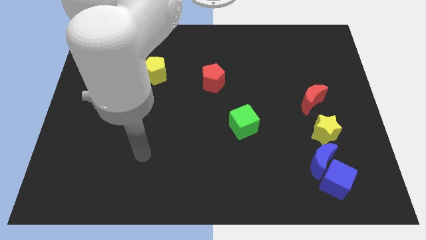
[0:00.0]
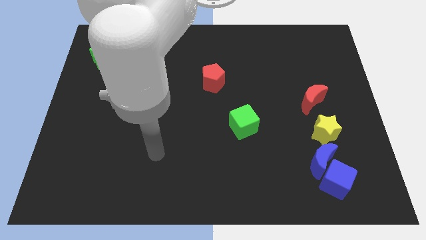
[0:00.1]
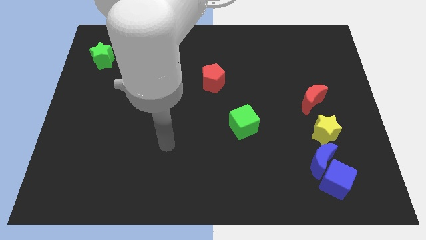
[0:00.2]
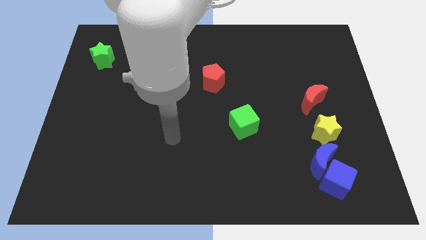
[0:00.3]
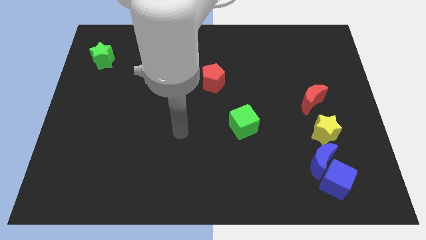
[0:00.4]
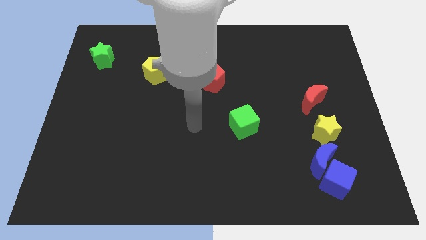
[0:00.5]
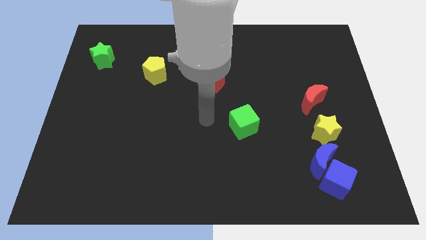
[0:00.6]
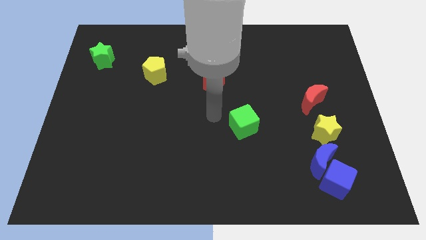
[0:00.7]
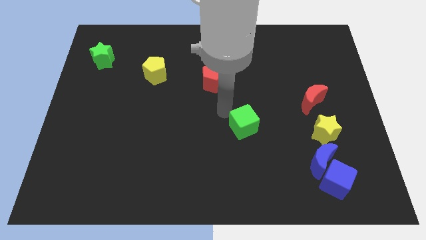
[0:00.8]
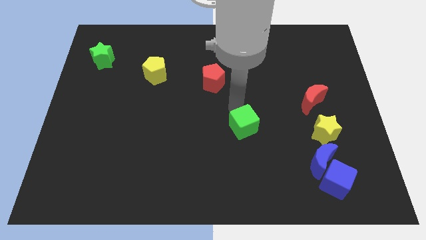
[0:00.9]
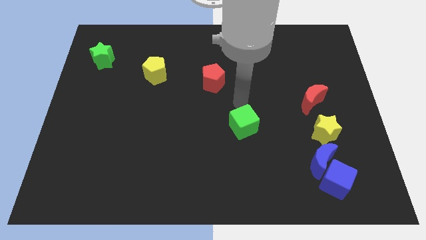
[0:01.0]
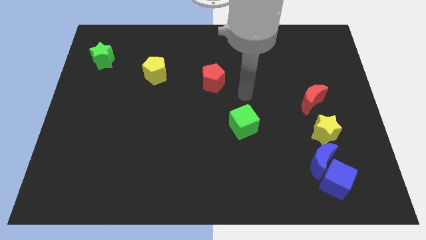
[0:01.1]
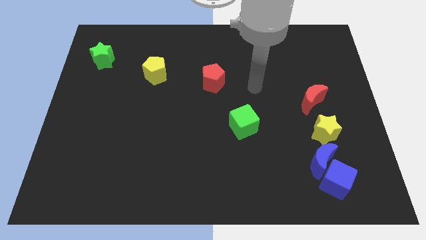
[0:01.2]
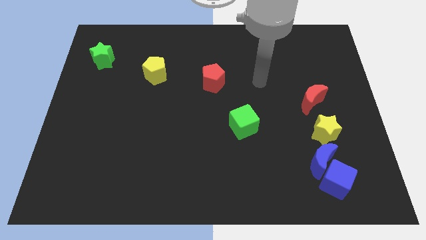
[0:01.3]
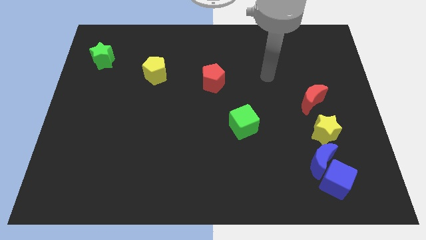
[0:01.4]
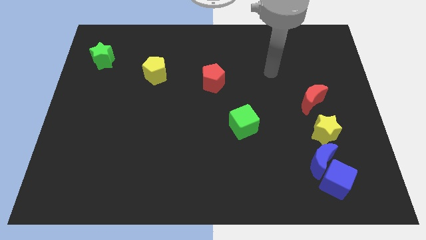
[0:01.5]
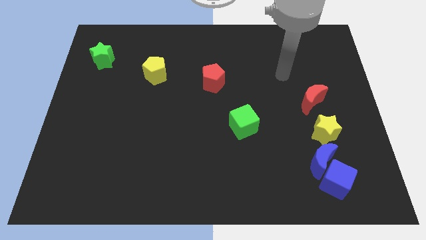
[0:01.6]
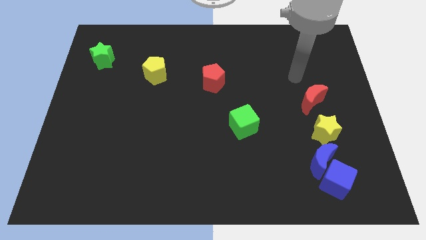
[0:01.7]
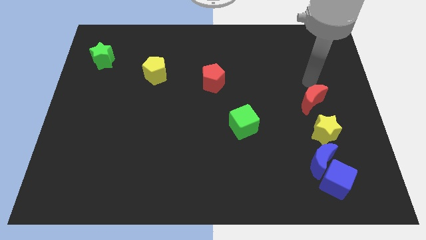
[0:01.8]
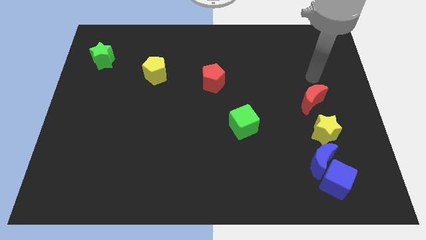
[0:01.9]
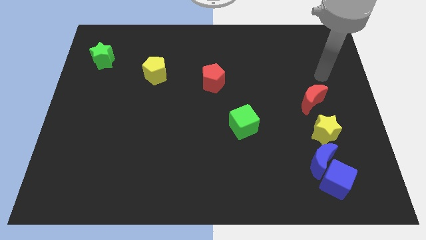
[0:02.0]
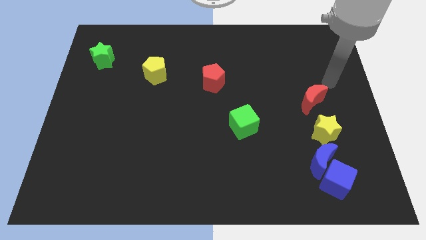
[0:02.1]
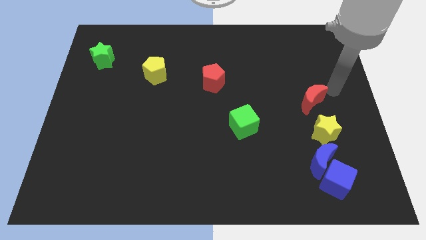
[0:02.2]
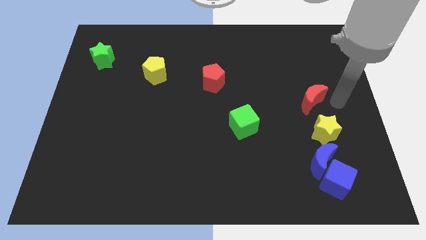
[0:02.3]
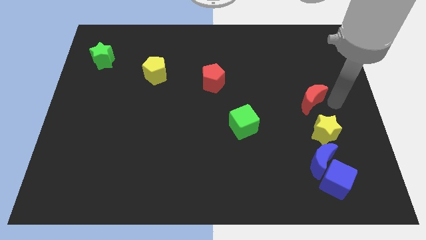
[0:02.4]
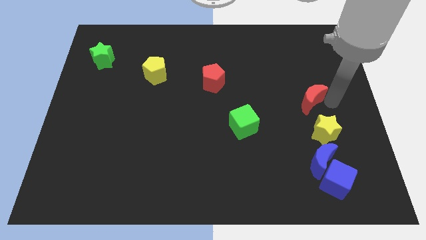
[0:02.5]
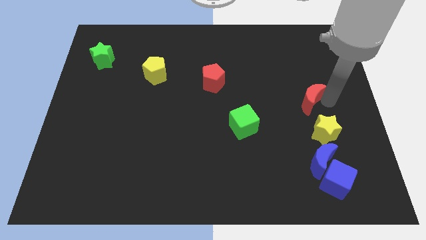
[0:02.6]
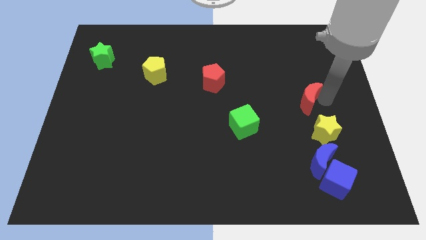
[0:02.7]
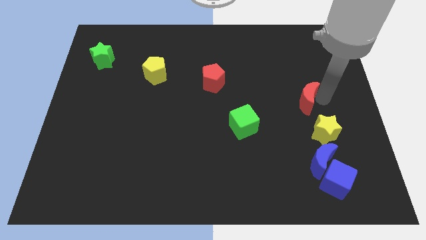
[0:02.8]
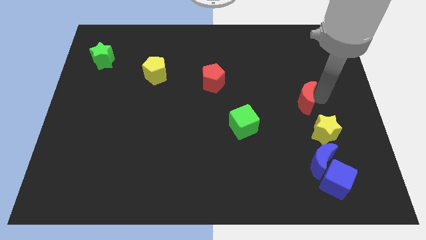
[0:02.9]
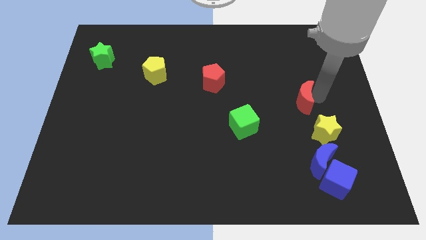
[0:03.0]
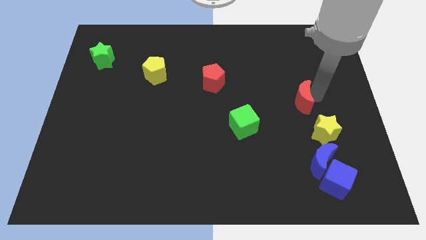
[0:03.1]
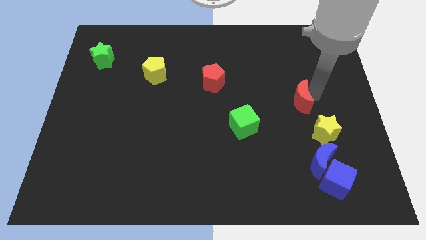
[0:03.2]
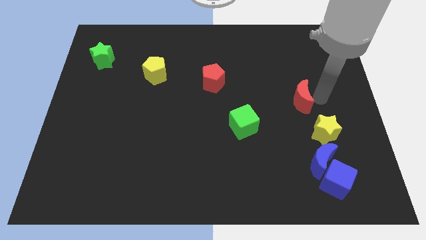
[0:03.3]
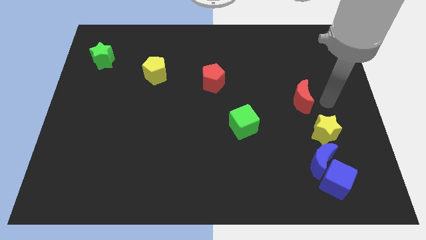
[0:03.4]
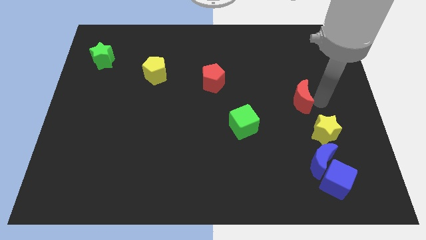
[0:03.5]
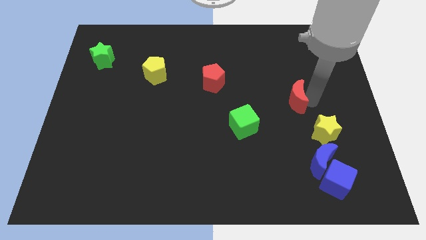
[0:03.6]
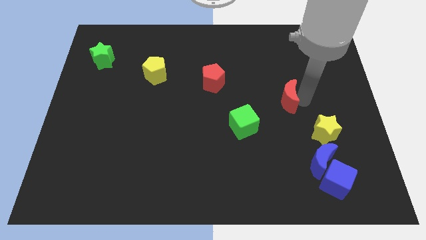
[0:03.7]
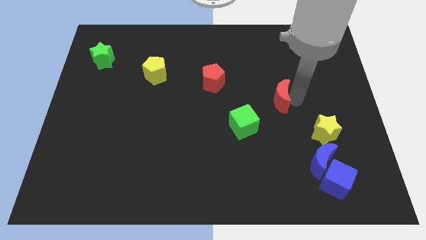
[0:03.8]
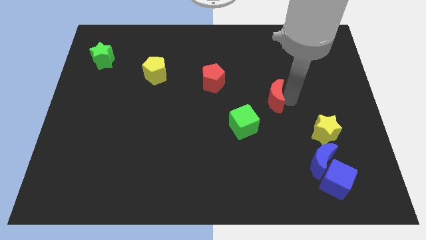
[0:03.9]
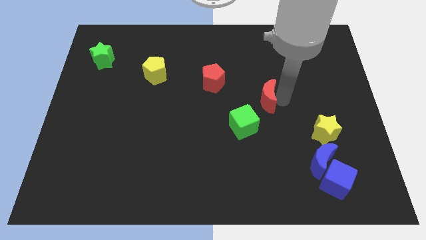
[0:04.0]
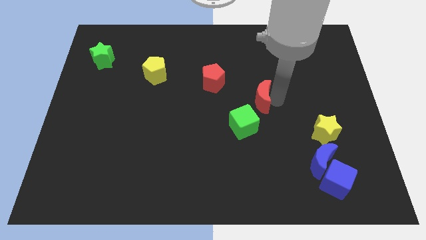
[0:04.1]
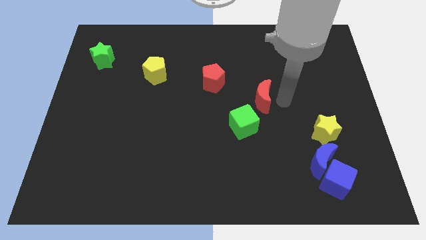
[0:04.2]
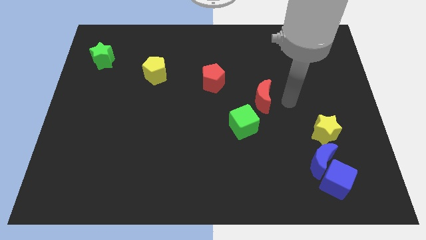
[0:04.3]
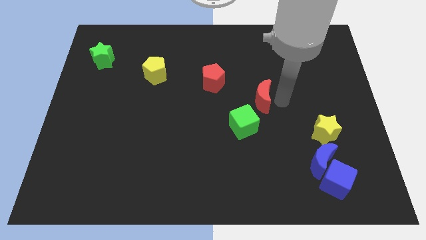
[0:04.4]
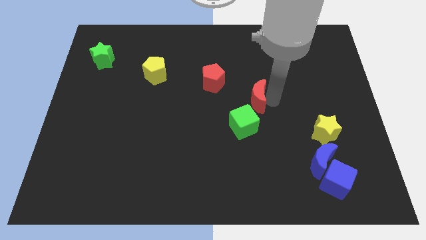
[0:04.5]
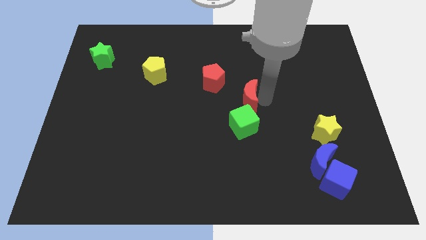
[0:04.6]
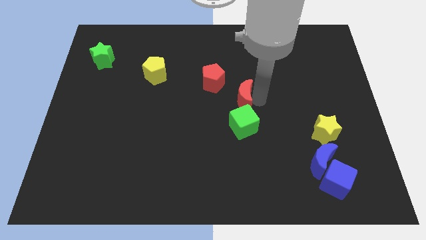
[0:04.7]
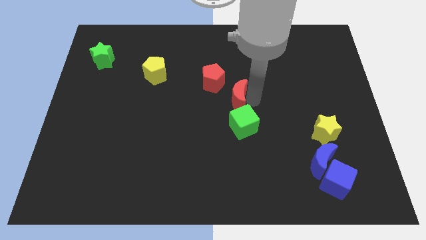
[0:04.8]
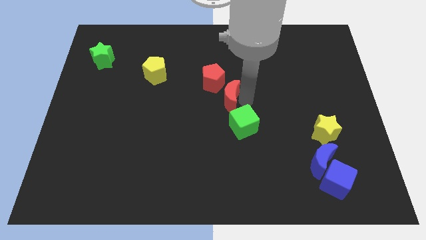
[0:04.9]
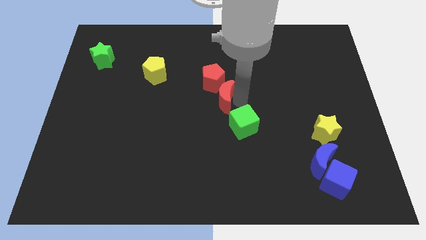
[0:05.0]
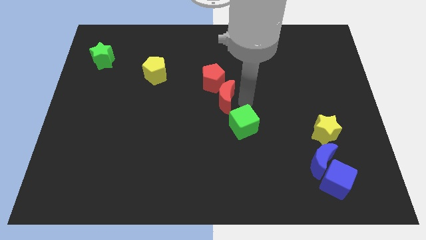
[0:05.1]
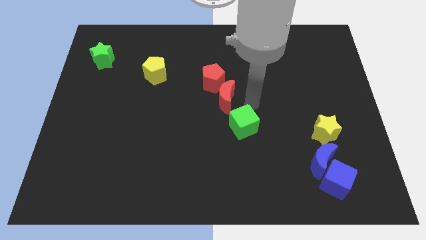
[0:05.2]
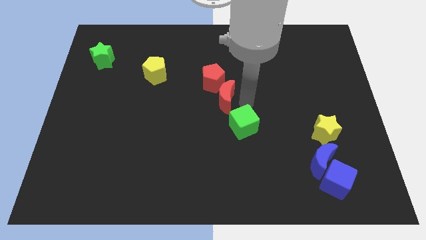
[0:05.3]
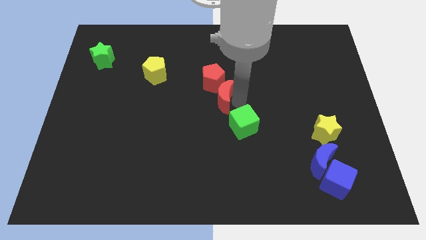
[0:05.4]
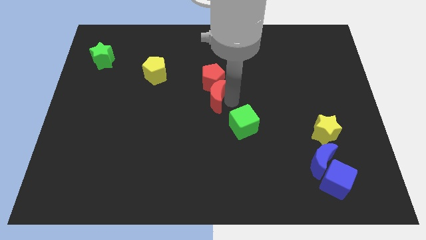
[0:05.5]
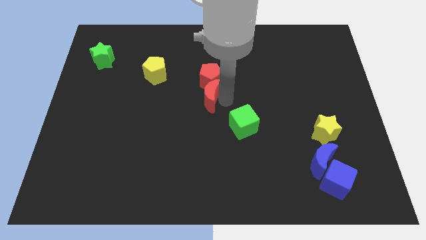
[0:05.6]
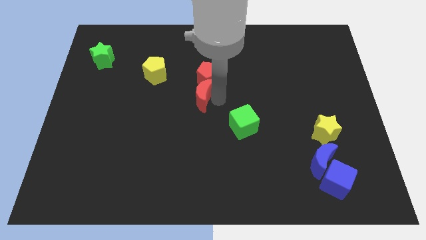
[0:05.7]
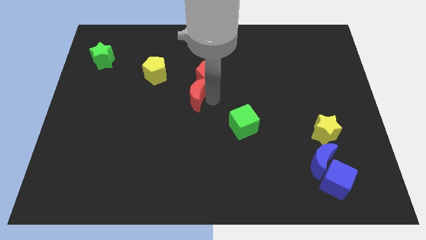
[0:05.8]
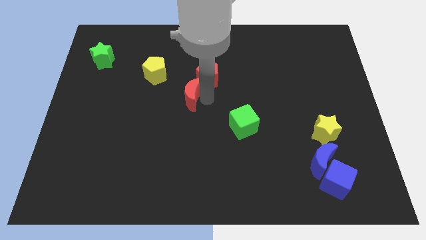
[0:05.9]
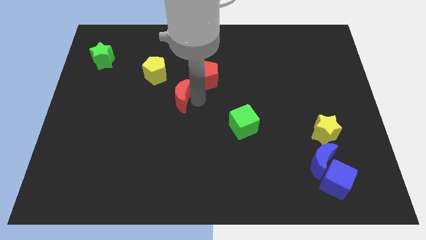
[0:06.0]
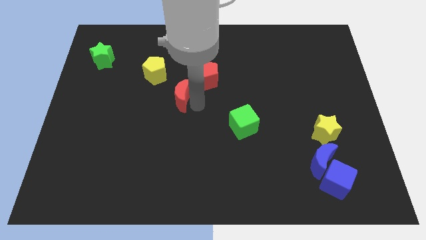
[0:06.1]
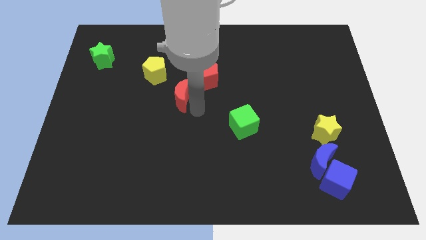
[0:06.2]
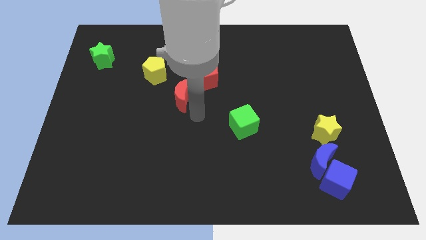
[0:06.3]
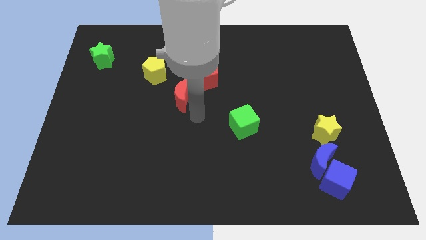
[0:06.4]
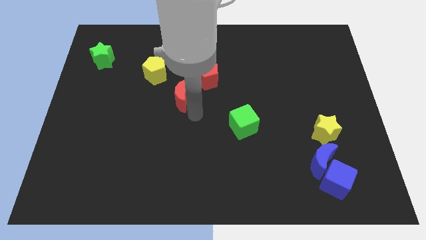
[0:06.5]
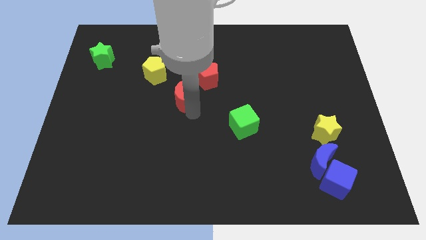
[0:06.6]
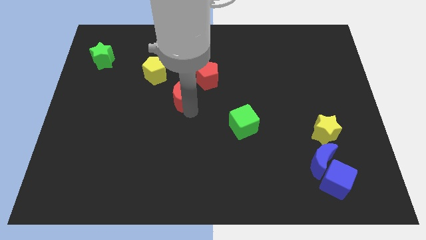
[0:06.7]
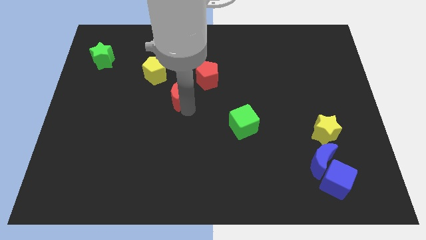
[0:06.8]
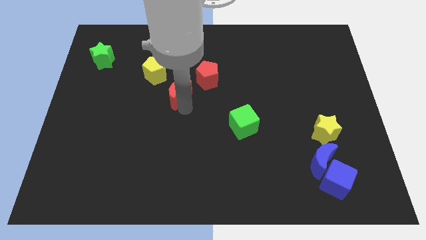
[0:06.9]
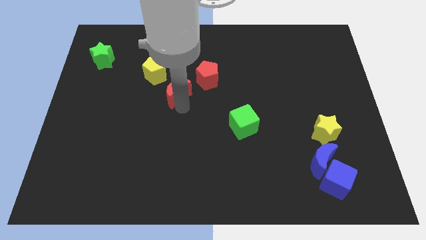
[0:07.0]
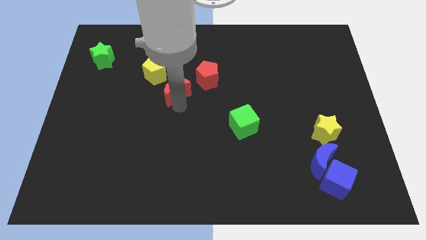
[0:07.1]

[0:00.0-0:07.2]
move the red moon to the left side of the red pentagon
